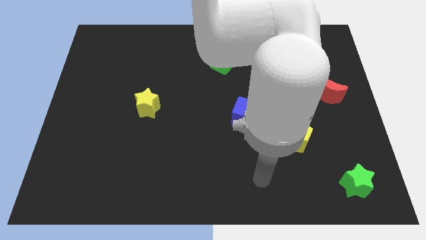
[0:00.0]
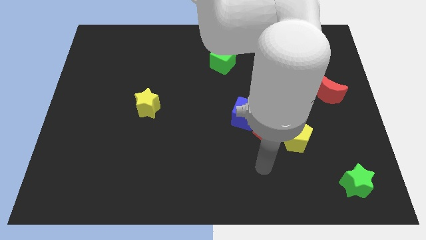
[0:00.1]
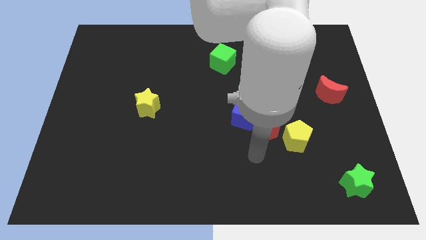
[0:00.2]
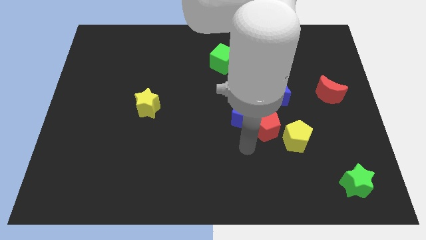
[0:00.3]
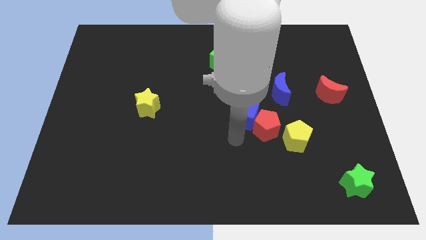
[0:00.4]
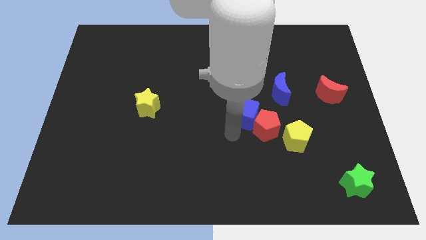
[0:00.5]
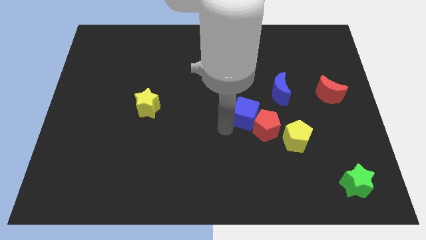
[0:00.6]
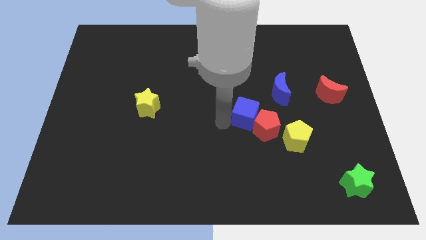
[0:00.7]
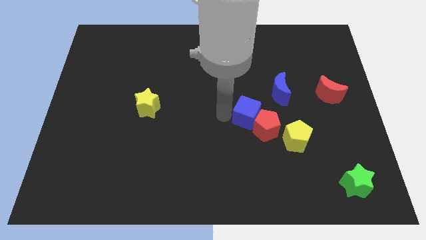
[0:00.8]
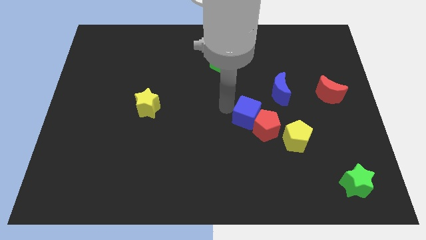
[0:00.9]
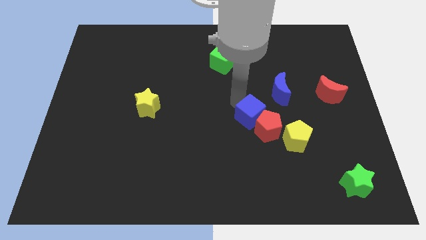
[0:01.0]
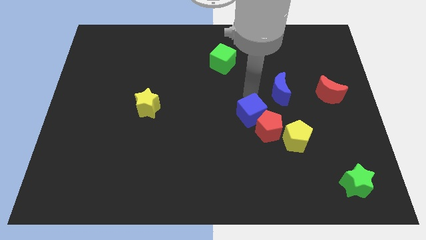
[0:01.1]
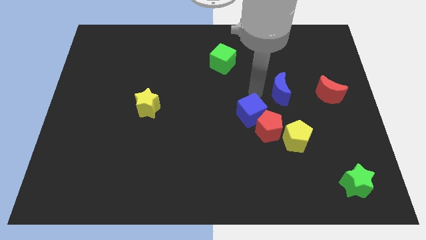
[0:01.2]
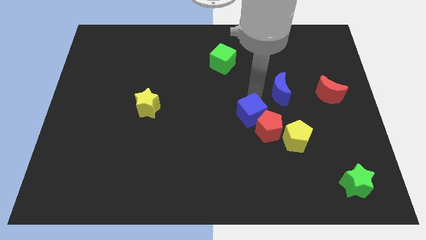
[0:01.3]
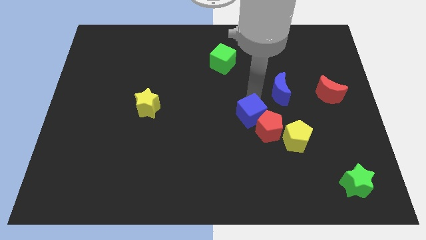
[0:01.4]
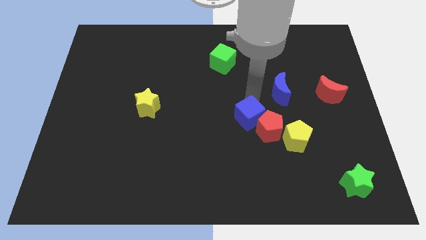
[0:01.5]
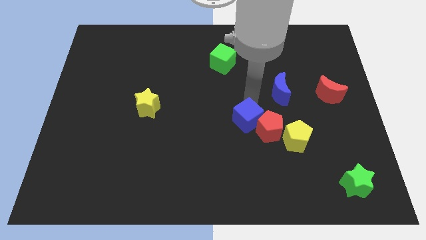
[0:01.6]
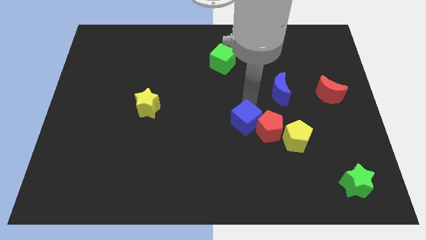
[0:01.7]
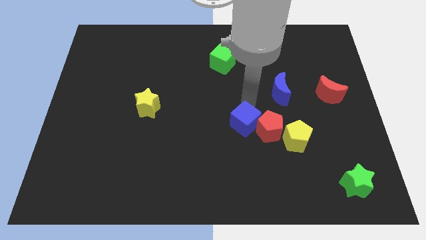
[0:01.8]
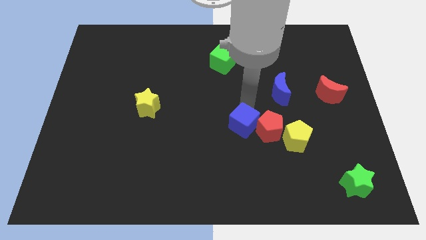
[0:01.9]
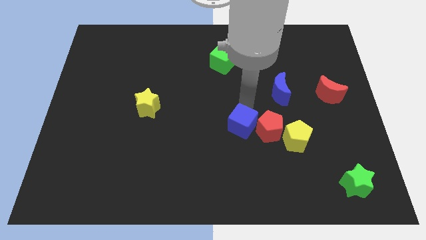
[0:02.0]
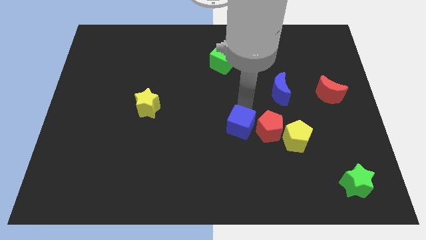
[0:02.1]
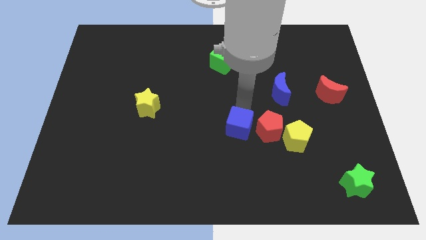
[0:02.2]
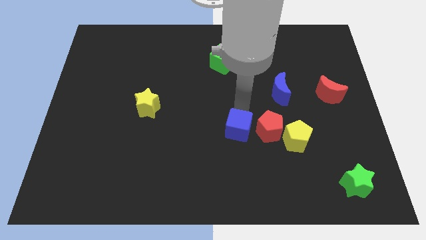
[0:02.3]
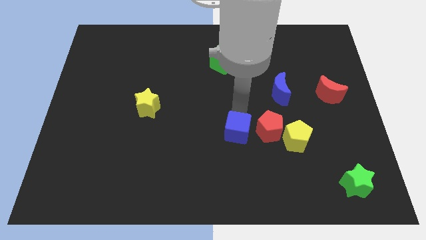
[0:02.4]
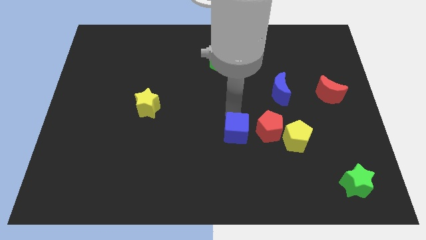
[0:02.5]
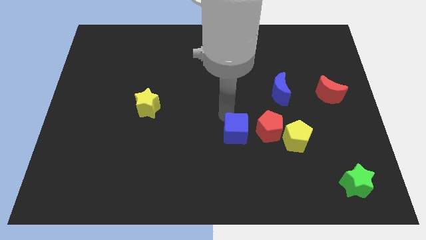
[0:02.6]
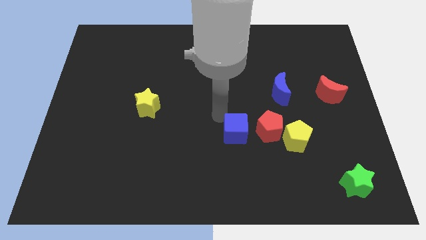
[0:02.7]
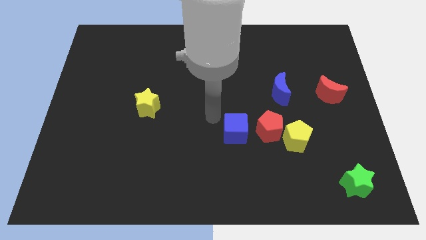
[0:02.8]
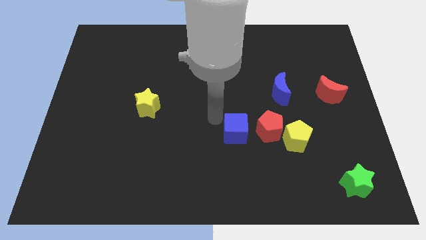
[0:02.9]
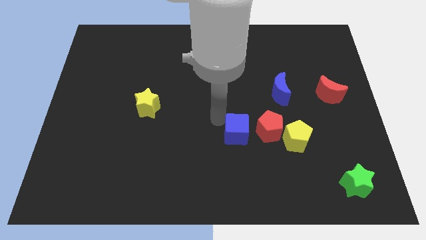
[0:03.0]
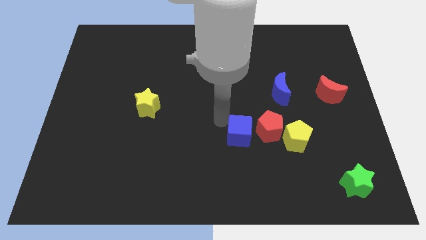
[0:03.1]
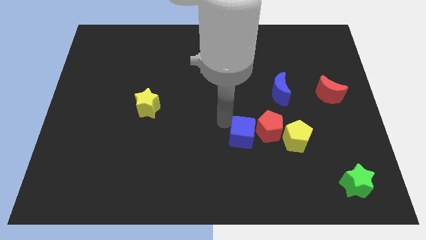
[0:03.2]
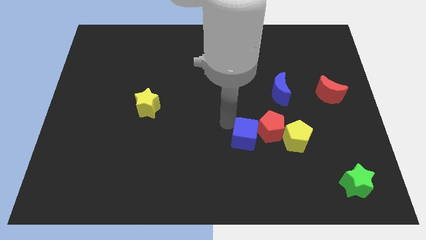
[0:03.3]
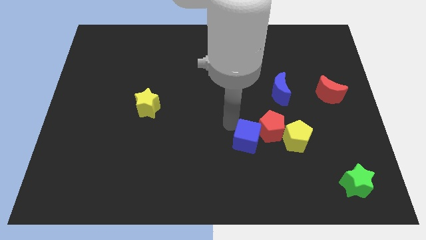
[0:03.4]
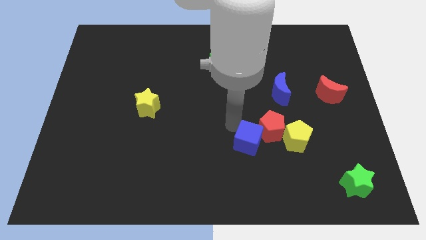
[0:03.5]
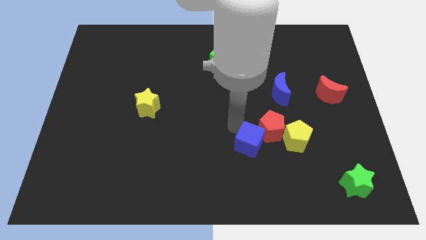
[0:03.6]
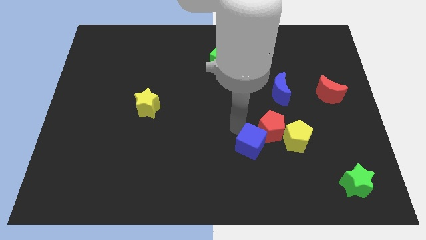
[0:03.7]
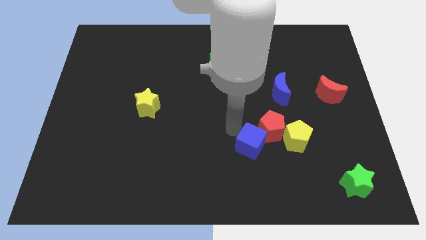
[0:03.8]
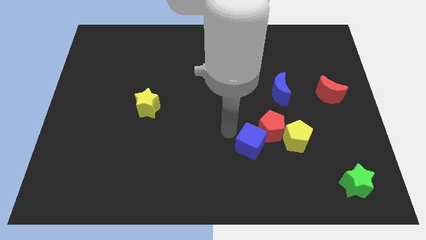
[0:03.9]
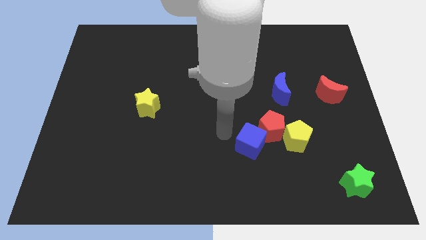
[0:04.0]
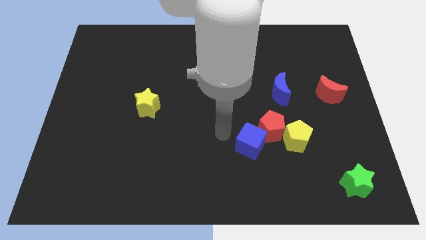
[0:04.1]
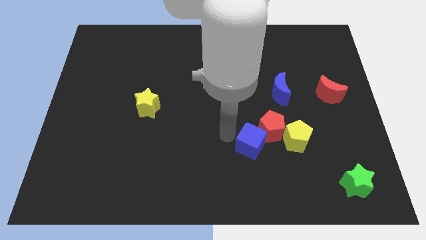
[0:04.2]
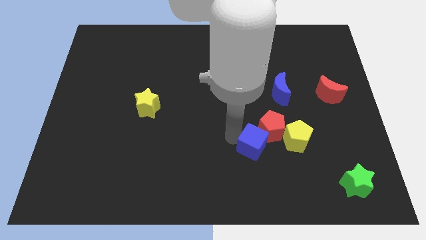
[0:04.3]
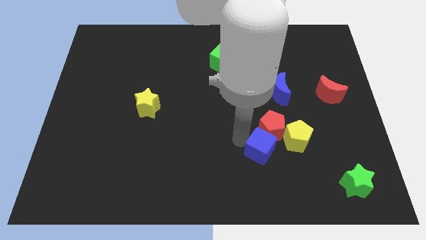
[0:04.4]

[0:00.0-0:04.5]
slide the blue cube slightly downwards and then right

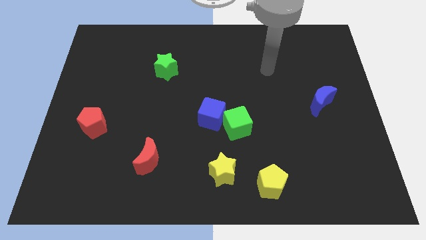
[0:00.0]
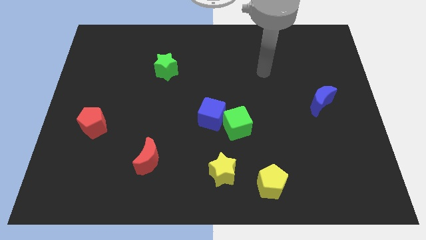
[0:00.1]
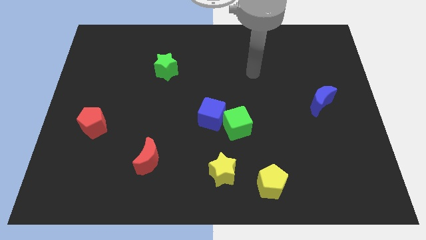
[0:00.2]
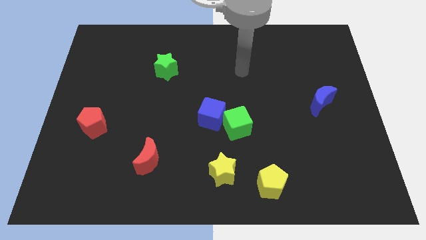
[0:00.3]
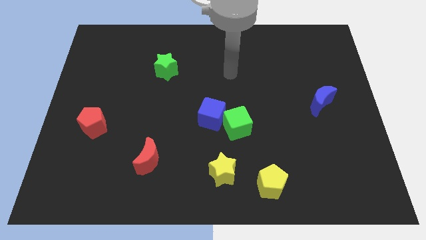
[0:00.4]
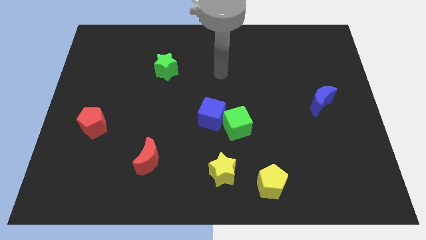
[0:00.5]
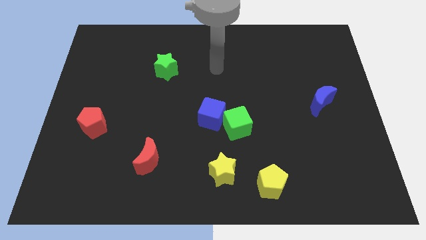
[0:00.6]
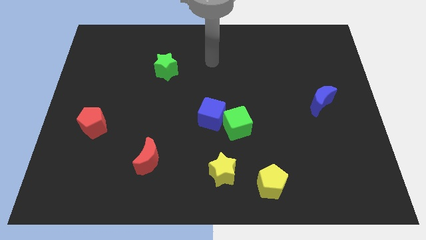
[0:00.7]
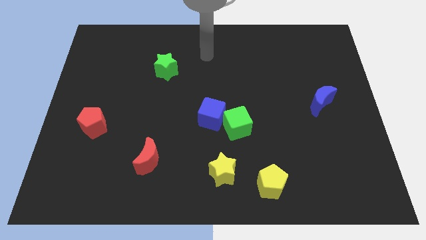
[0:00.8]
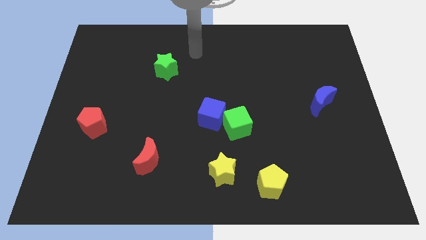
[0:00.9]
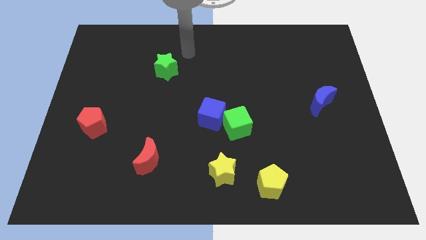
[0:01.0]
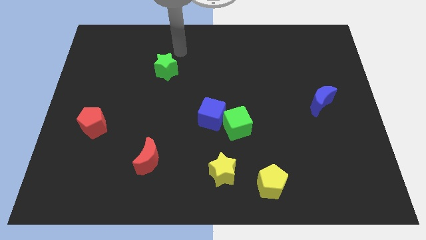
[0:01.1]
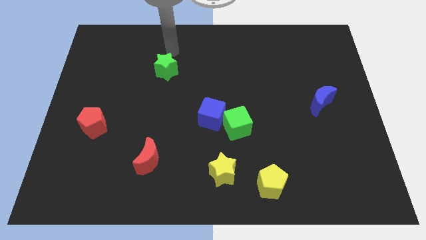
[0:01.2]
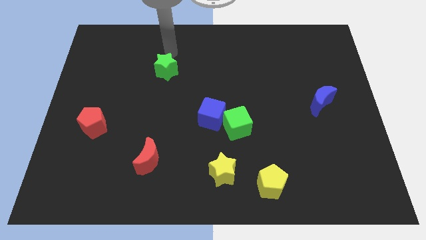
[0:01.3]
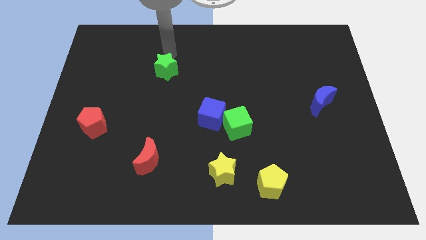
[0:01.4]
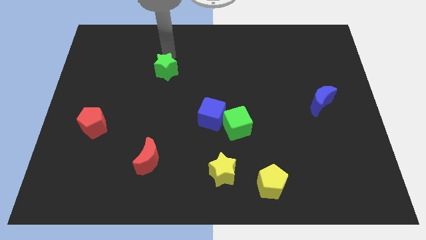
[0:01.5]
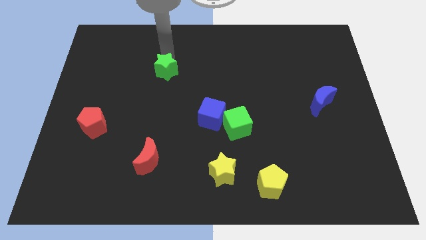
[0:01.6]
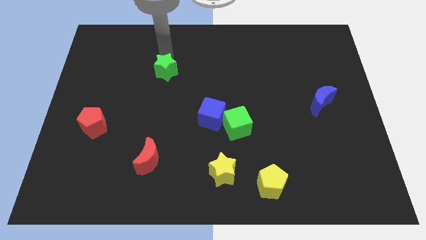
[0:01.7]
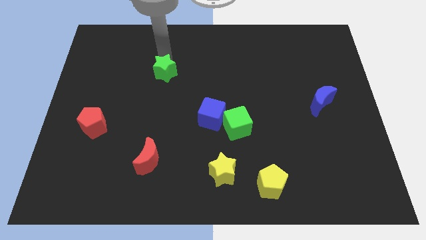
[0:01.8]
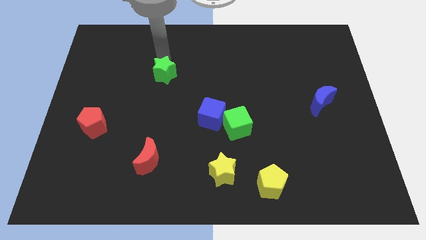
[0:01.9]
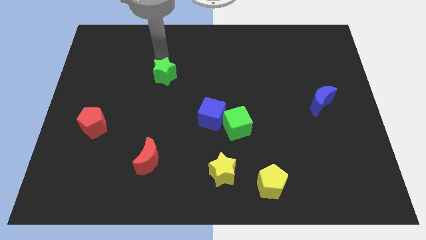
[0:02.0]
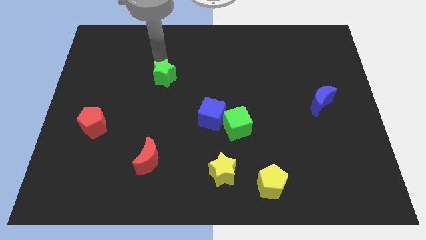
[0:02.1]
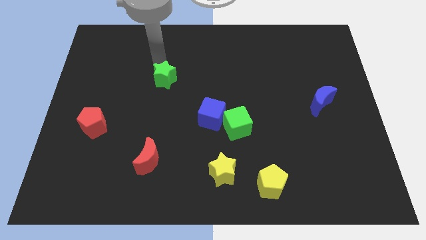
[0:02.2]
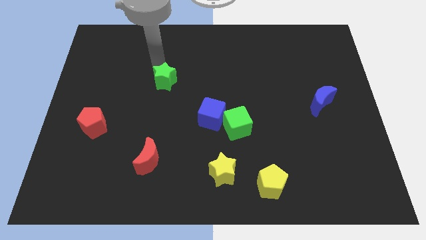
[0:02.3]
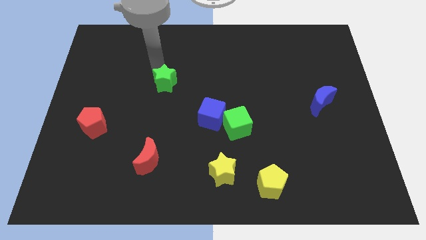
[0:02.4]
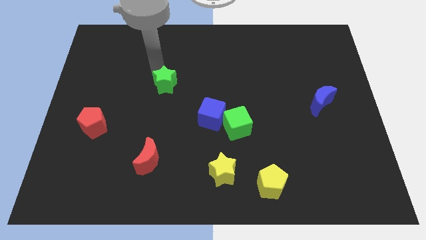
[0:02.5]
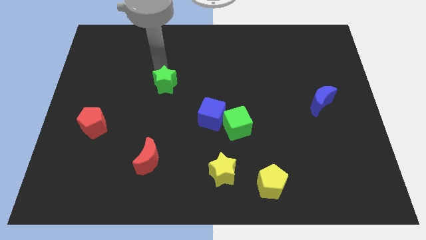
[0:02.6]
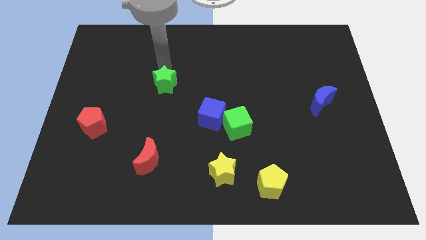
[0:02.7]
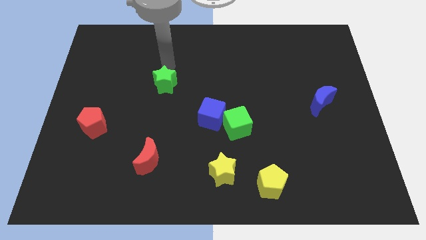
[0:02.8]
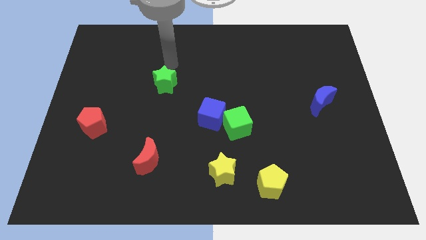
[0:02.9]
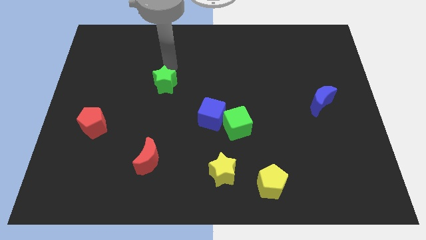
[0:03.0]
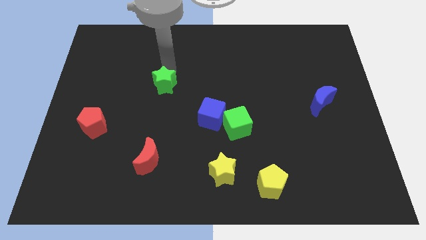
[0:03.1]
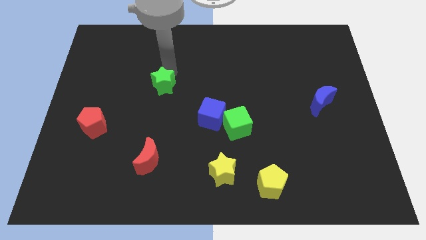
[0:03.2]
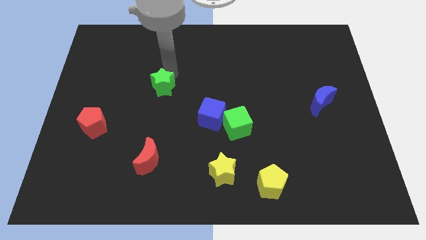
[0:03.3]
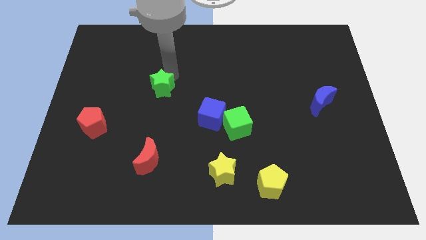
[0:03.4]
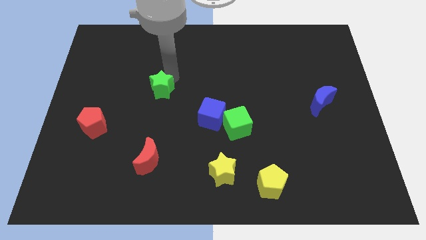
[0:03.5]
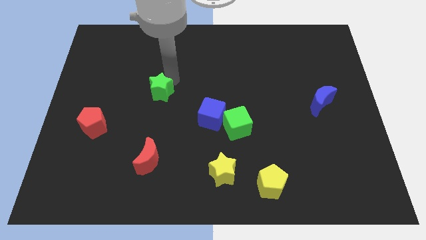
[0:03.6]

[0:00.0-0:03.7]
push the green star a little bit down
